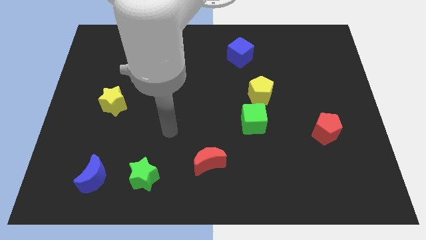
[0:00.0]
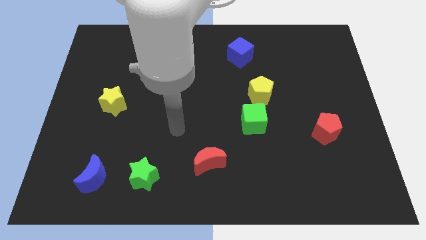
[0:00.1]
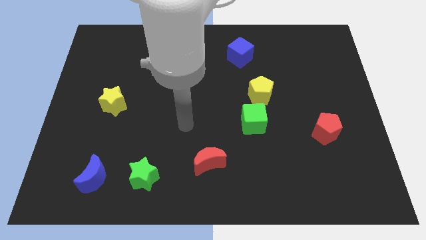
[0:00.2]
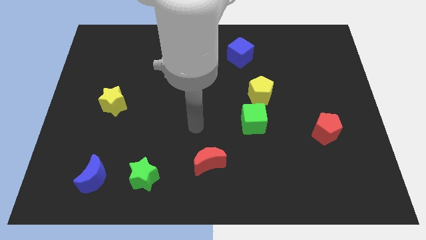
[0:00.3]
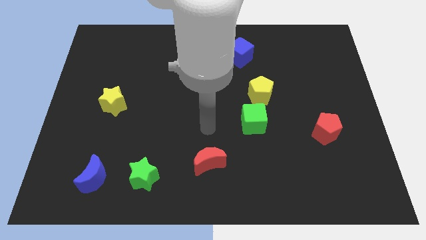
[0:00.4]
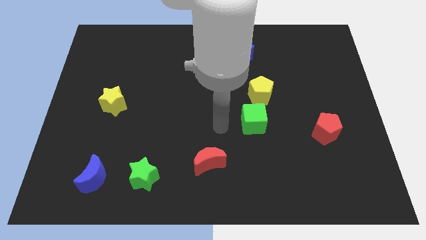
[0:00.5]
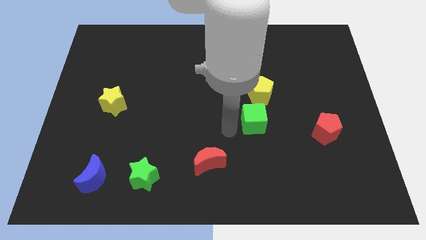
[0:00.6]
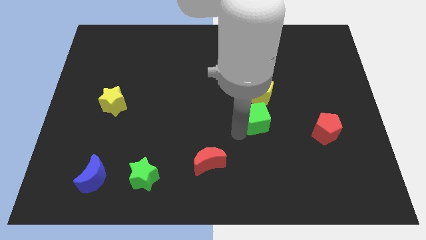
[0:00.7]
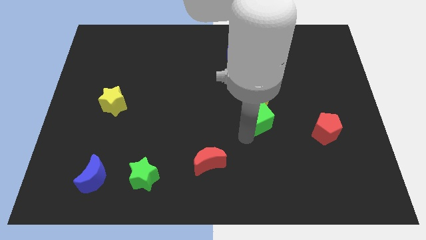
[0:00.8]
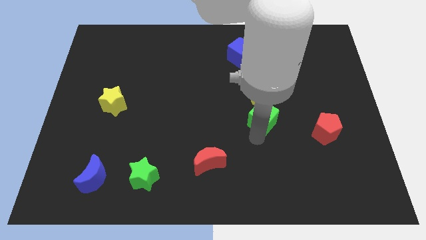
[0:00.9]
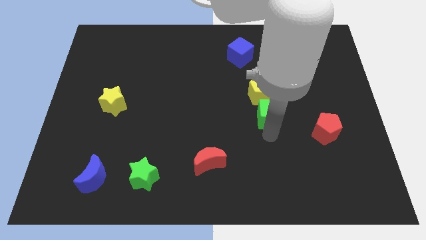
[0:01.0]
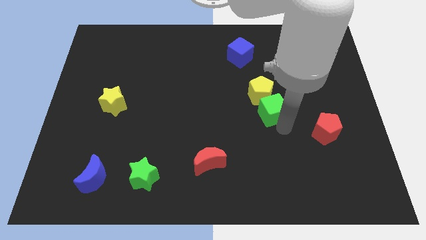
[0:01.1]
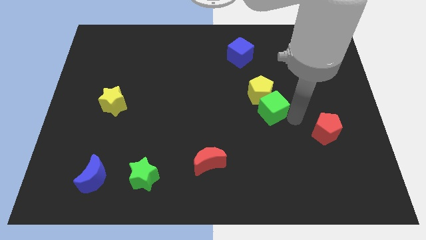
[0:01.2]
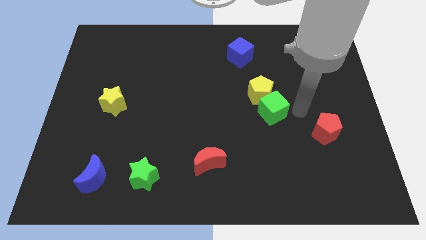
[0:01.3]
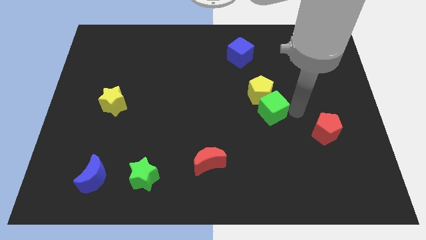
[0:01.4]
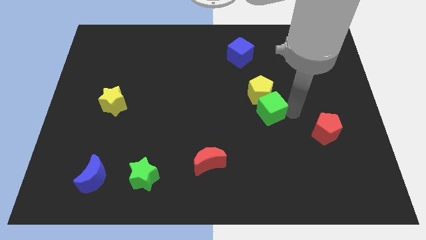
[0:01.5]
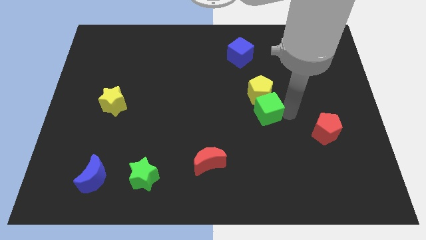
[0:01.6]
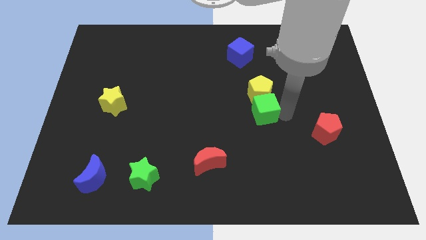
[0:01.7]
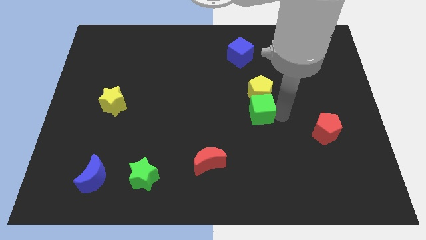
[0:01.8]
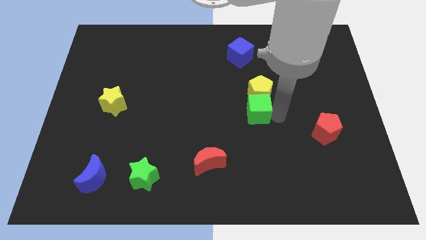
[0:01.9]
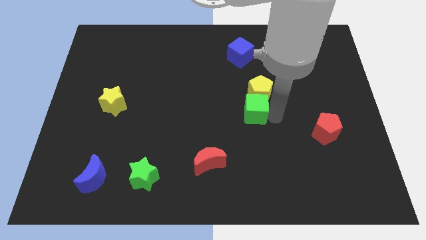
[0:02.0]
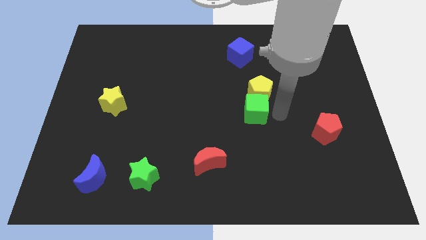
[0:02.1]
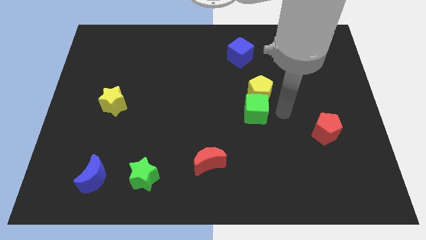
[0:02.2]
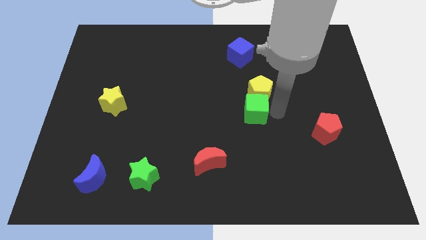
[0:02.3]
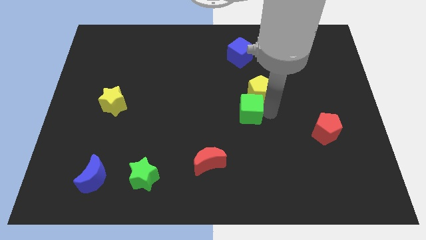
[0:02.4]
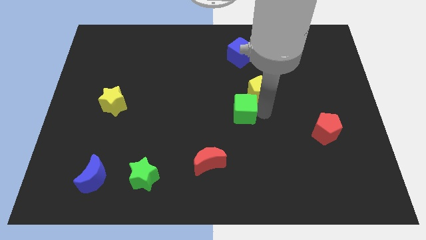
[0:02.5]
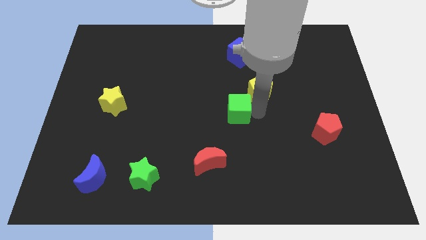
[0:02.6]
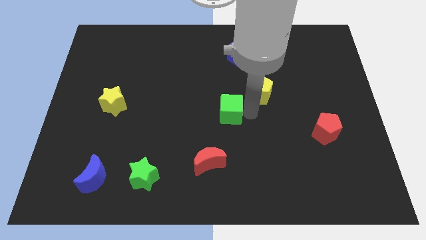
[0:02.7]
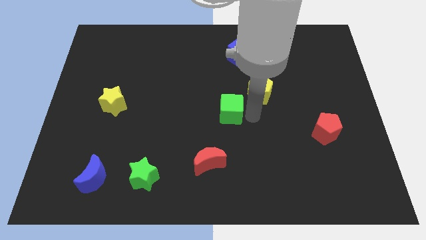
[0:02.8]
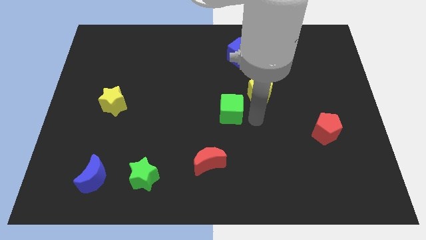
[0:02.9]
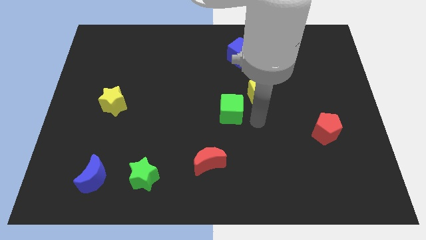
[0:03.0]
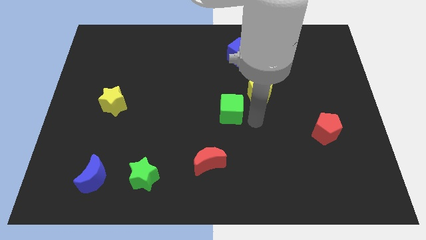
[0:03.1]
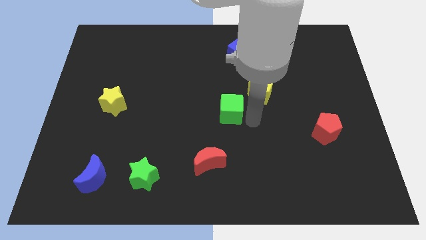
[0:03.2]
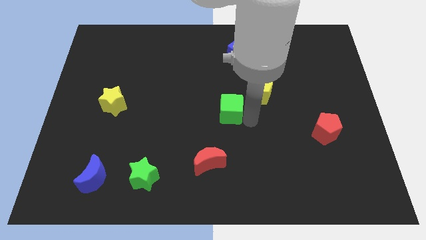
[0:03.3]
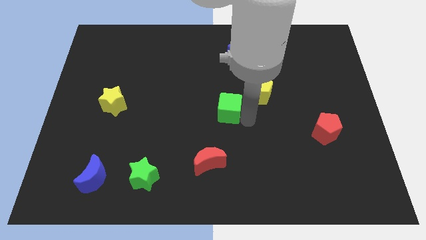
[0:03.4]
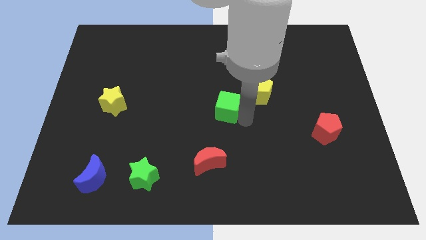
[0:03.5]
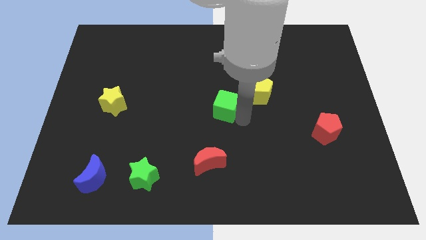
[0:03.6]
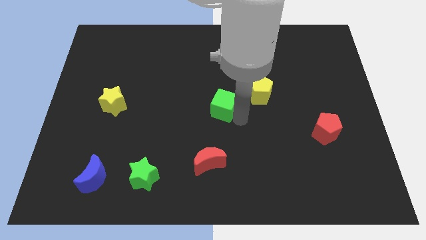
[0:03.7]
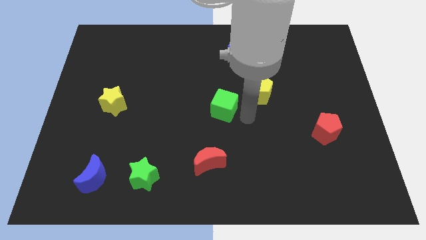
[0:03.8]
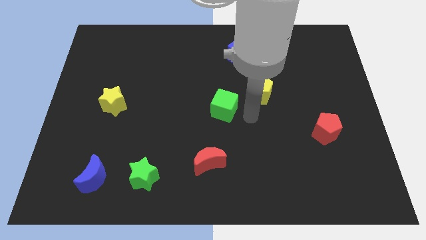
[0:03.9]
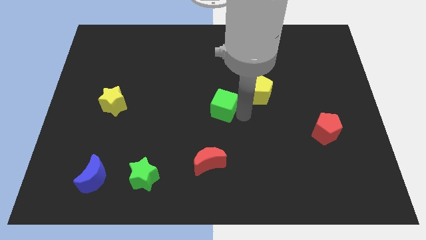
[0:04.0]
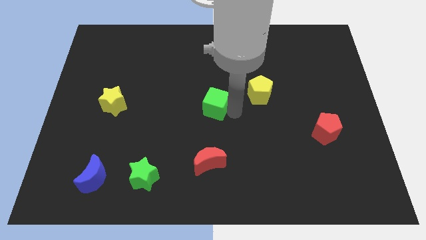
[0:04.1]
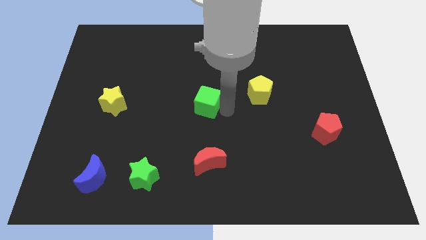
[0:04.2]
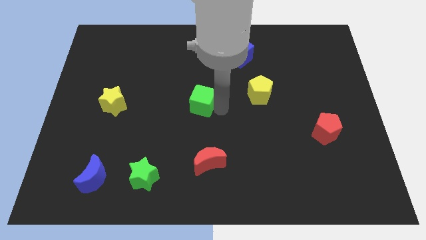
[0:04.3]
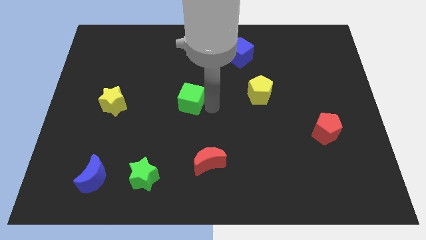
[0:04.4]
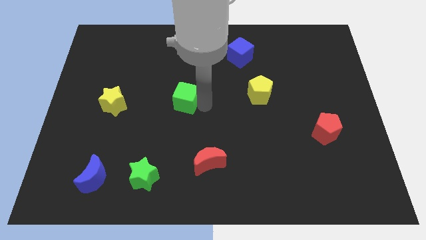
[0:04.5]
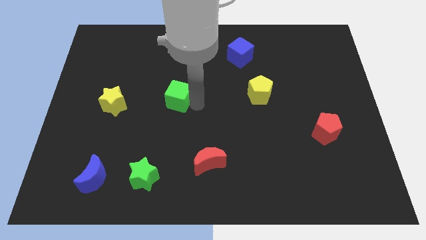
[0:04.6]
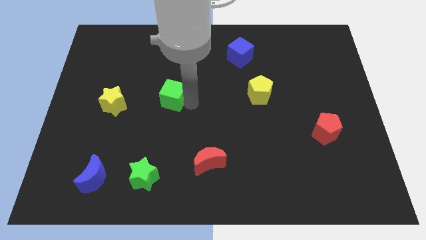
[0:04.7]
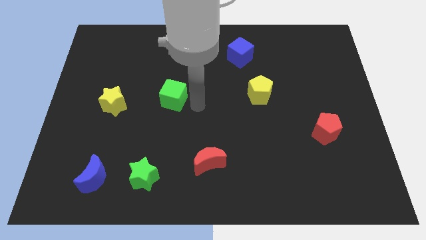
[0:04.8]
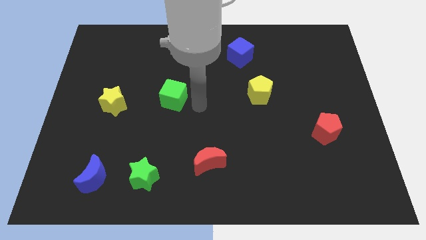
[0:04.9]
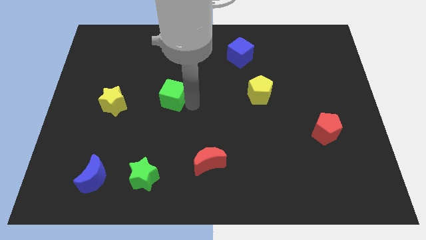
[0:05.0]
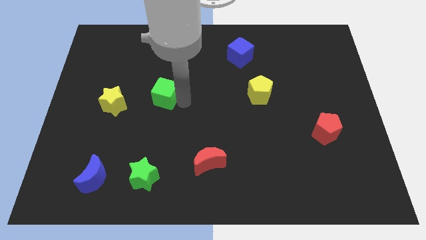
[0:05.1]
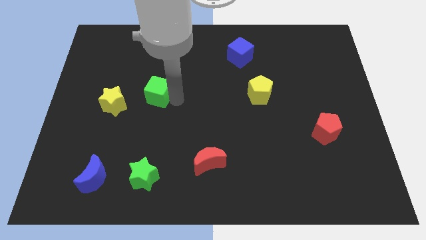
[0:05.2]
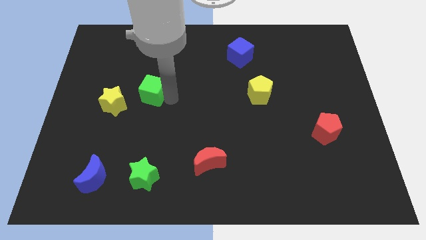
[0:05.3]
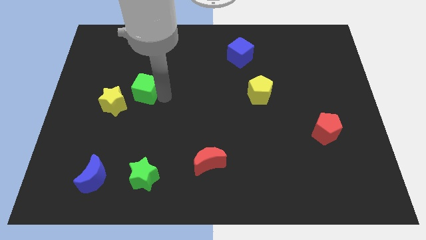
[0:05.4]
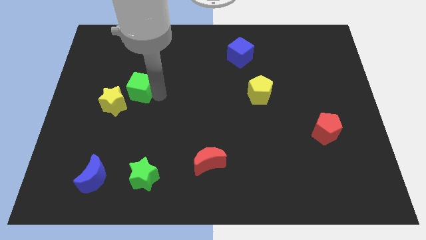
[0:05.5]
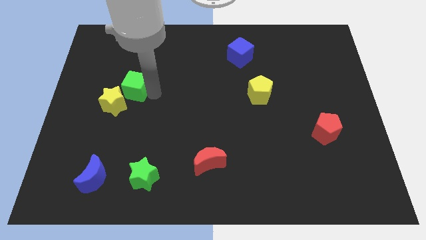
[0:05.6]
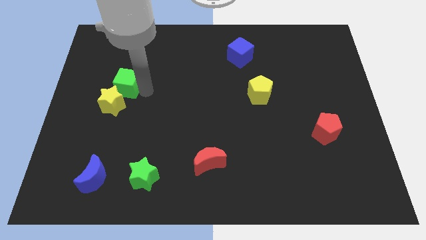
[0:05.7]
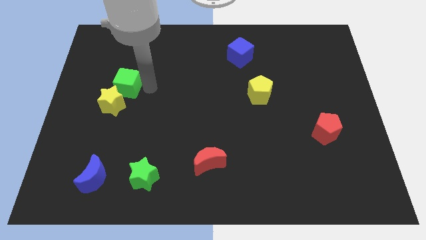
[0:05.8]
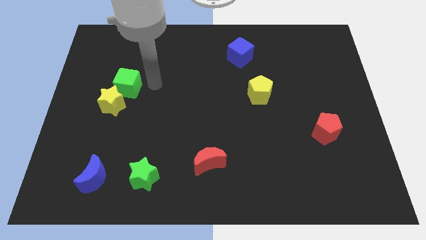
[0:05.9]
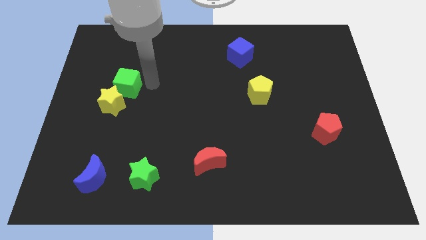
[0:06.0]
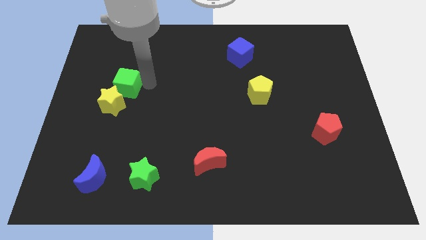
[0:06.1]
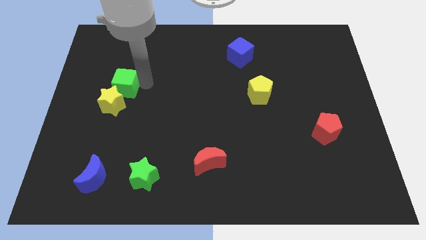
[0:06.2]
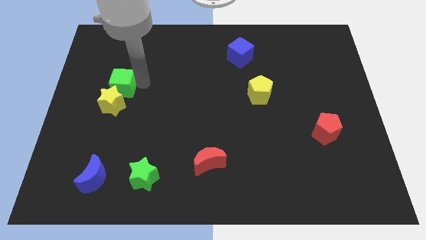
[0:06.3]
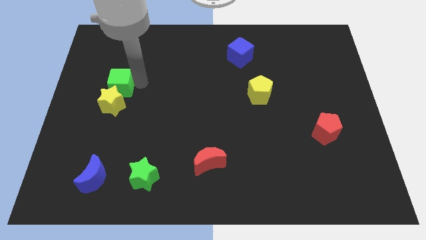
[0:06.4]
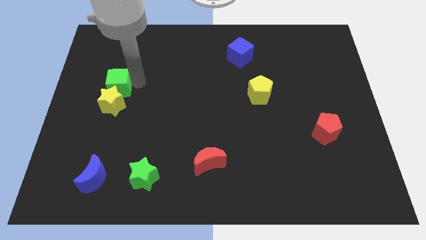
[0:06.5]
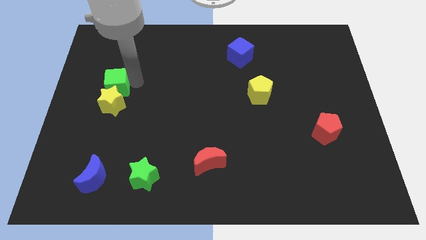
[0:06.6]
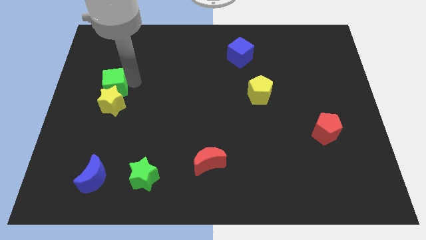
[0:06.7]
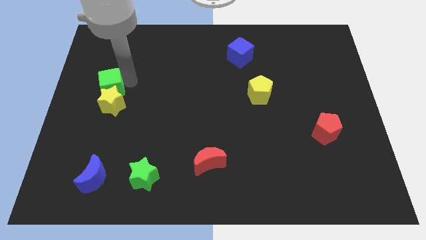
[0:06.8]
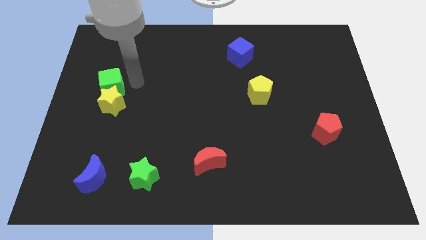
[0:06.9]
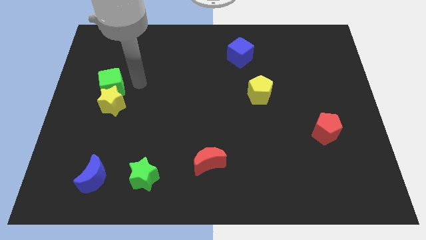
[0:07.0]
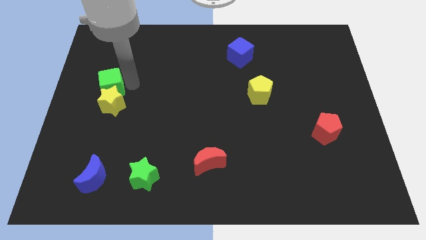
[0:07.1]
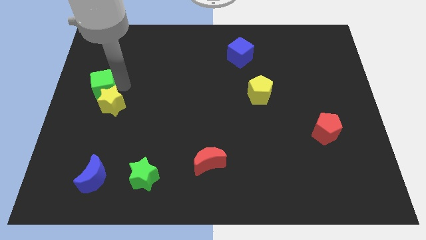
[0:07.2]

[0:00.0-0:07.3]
slide the green cube to the left side
